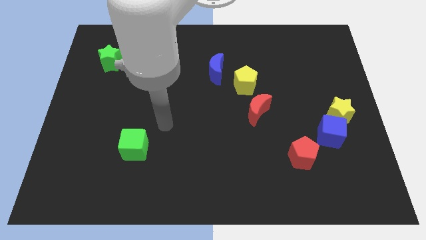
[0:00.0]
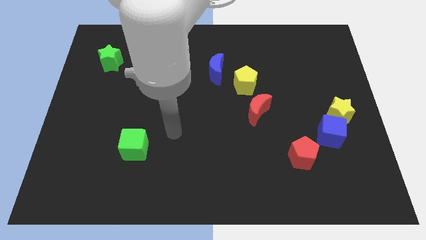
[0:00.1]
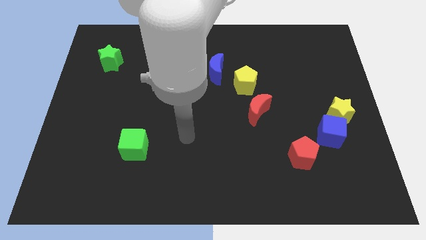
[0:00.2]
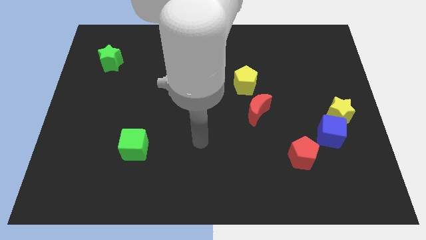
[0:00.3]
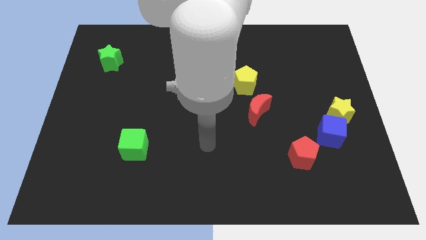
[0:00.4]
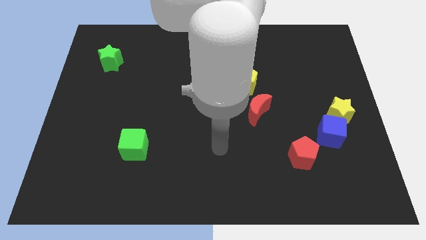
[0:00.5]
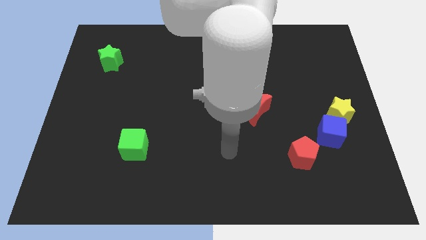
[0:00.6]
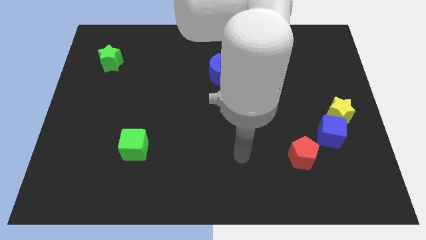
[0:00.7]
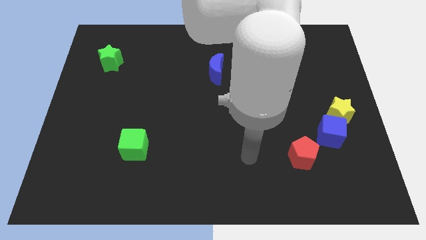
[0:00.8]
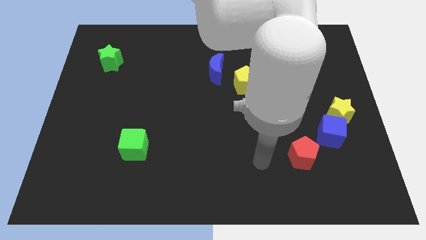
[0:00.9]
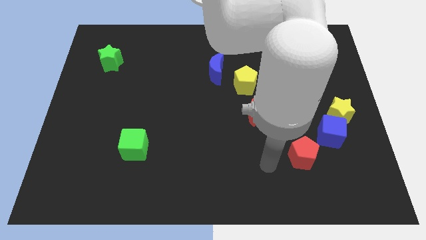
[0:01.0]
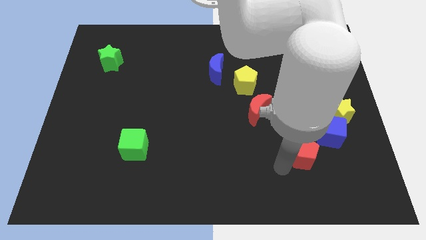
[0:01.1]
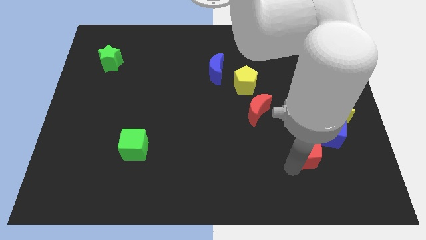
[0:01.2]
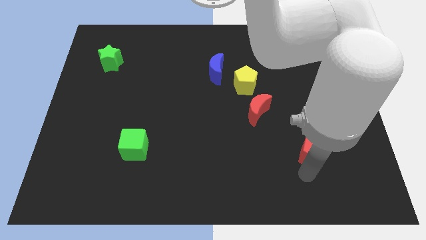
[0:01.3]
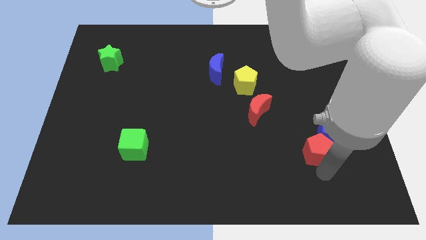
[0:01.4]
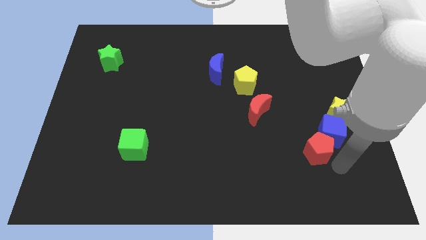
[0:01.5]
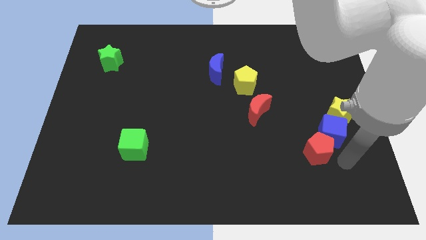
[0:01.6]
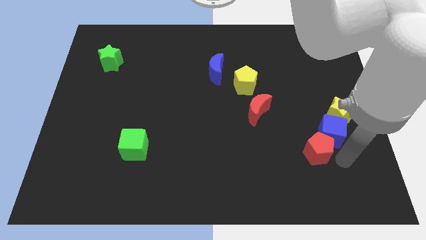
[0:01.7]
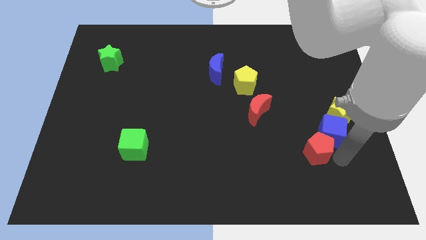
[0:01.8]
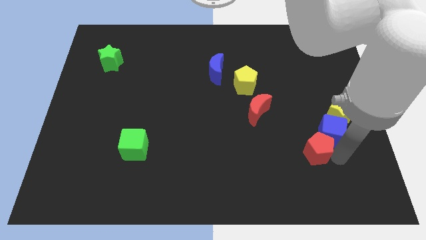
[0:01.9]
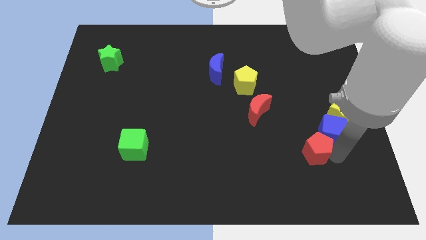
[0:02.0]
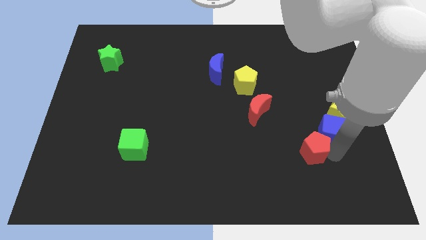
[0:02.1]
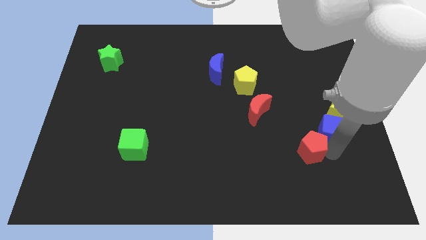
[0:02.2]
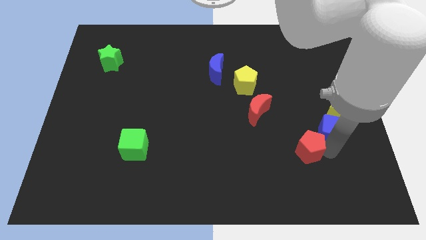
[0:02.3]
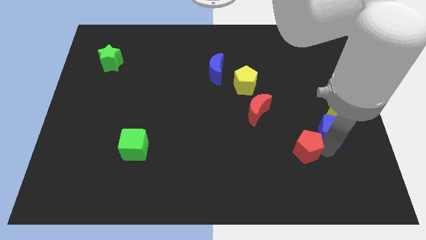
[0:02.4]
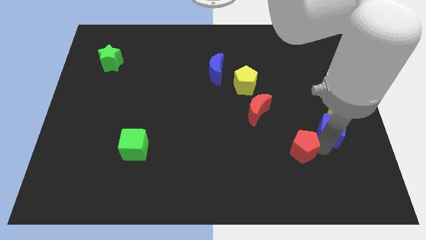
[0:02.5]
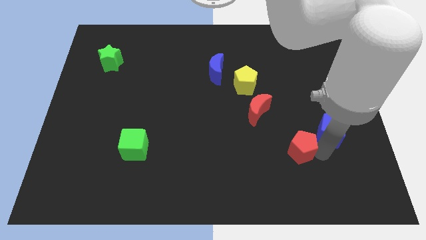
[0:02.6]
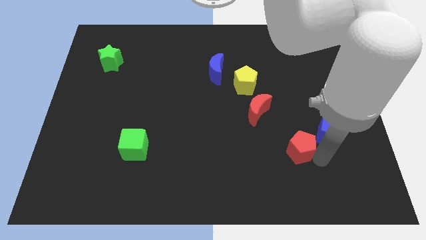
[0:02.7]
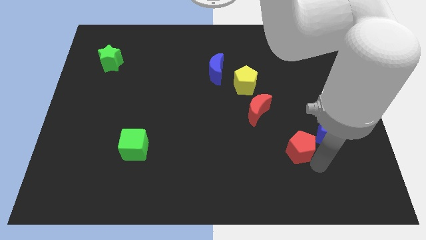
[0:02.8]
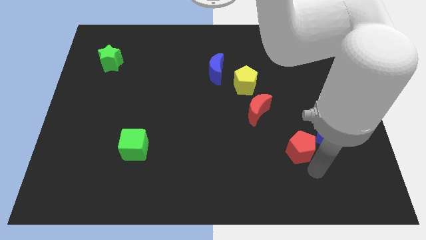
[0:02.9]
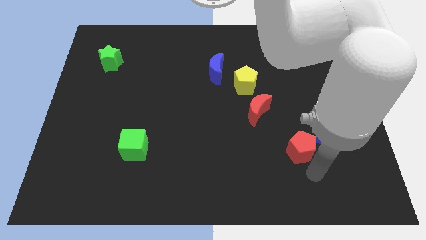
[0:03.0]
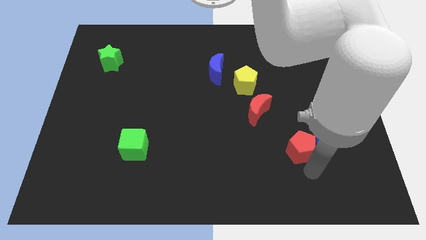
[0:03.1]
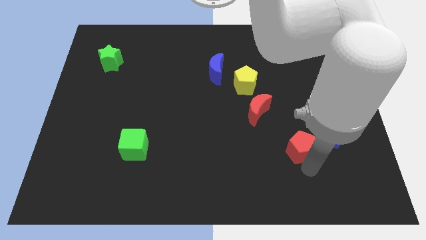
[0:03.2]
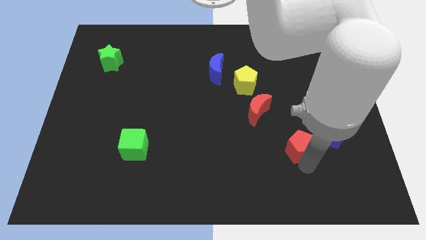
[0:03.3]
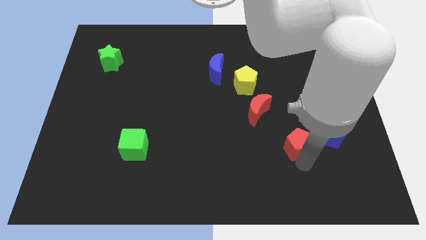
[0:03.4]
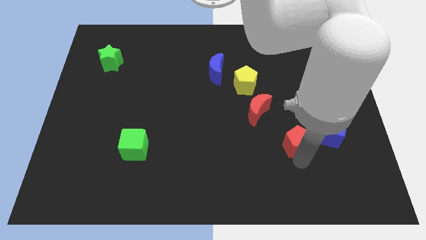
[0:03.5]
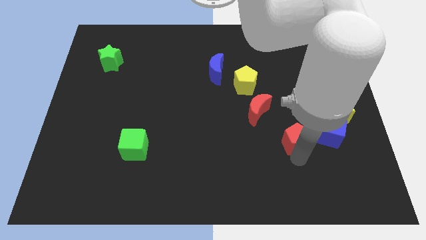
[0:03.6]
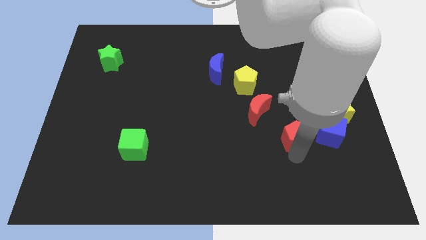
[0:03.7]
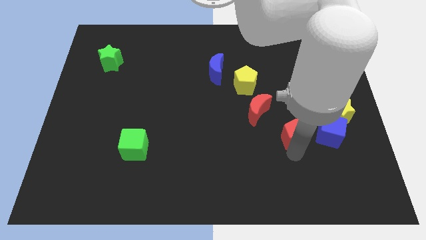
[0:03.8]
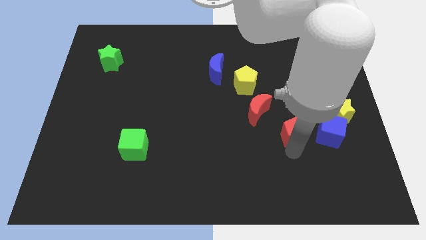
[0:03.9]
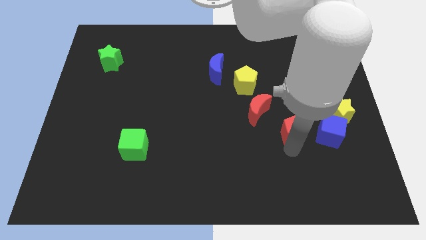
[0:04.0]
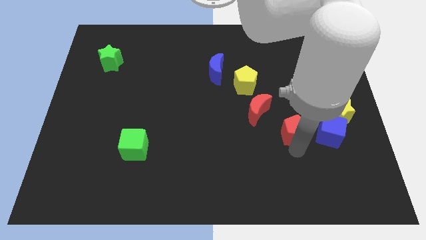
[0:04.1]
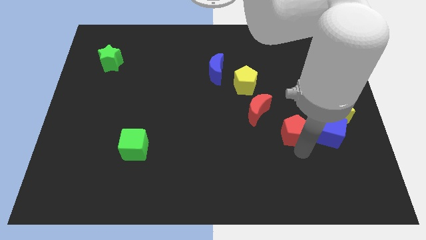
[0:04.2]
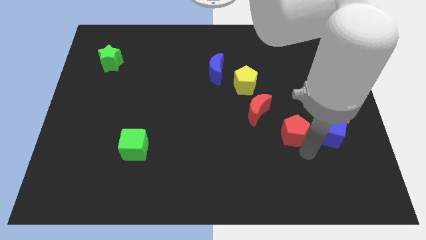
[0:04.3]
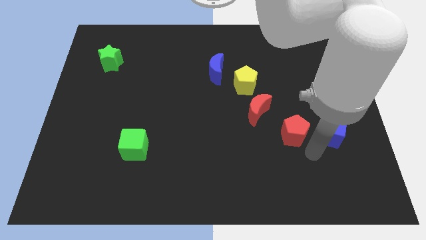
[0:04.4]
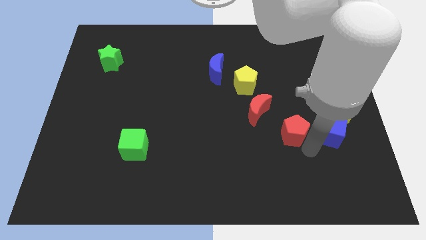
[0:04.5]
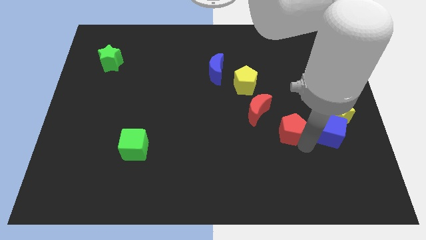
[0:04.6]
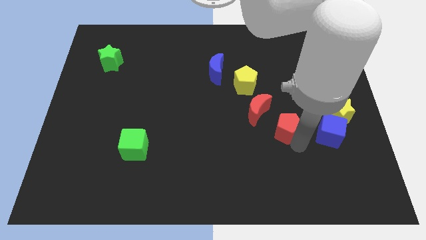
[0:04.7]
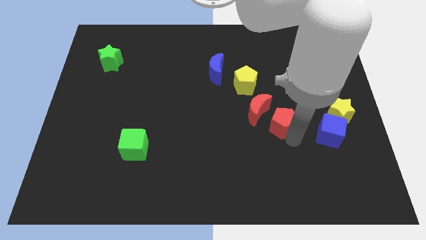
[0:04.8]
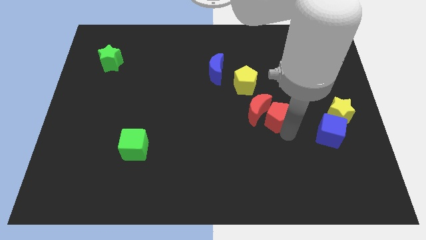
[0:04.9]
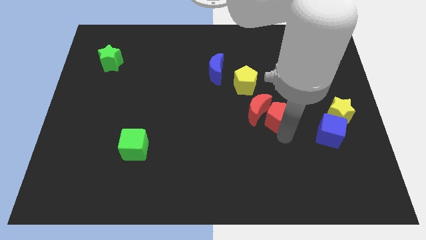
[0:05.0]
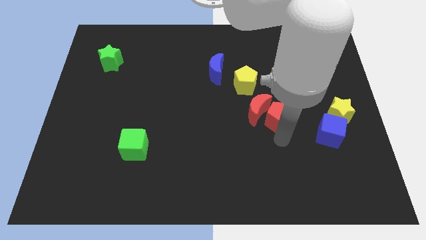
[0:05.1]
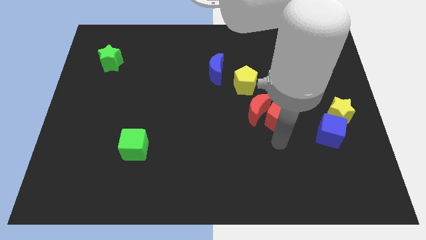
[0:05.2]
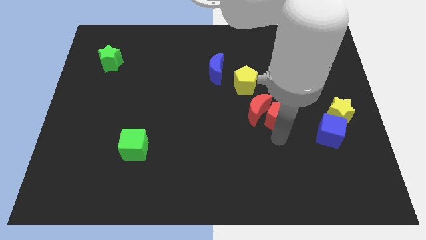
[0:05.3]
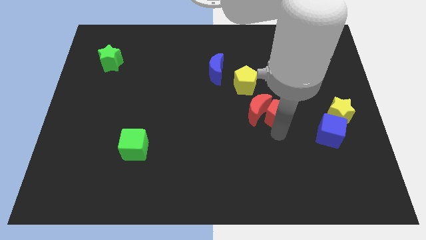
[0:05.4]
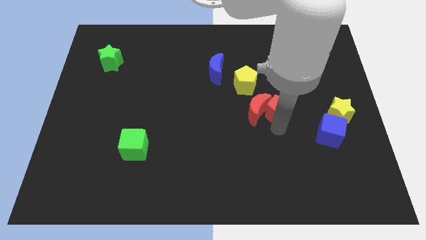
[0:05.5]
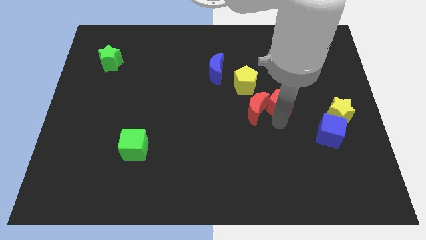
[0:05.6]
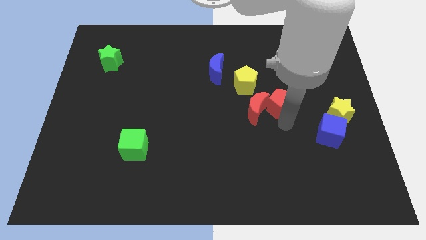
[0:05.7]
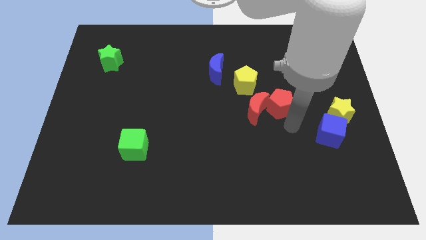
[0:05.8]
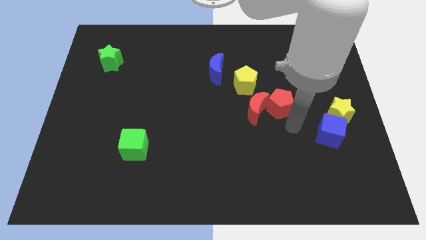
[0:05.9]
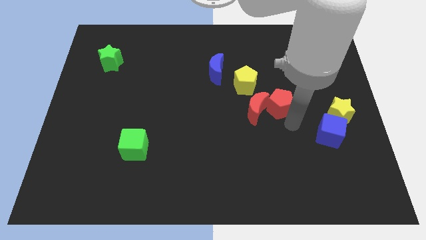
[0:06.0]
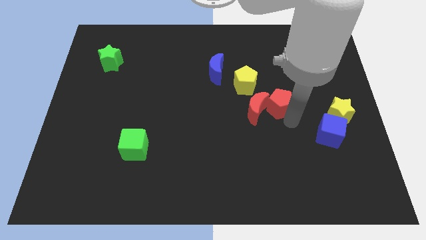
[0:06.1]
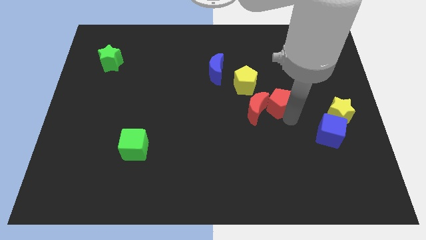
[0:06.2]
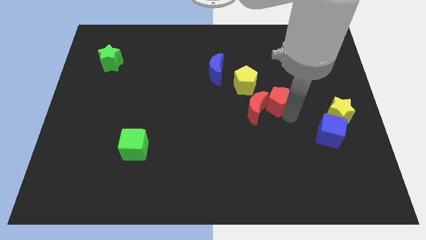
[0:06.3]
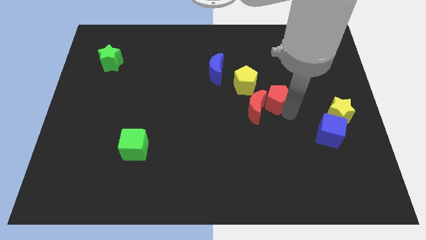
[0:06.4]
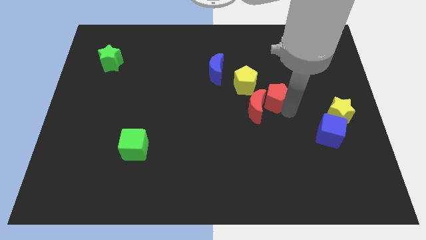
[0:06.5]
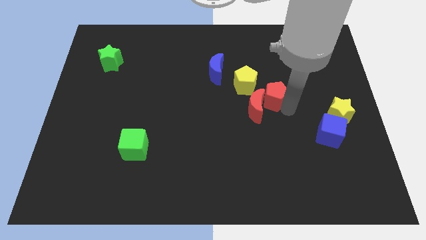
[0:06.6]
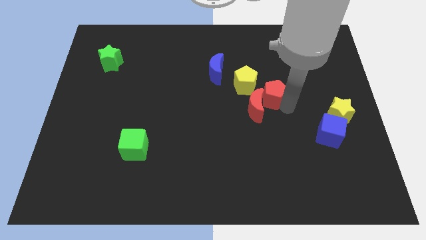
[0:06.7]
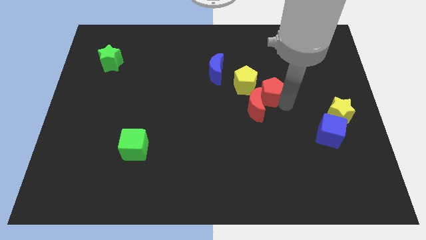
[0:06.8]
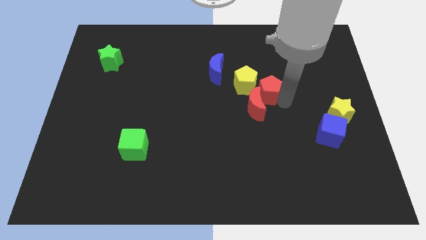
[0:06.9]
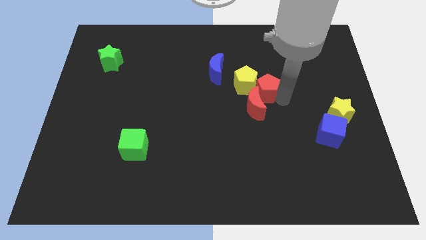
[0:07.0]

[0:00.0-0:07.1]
push the red pentagon close to the yellow pentagon
